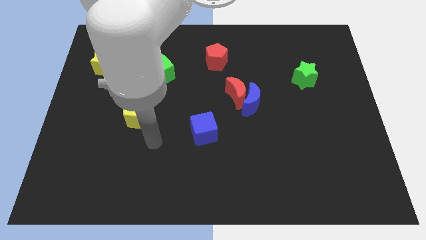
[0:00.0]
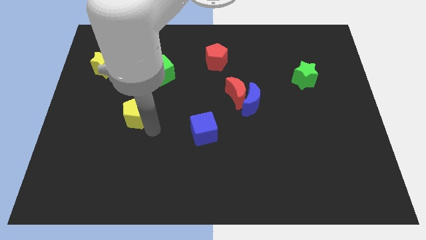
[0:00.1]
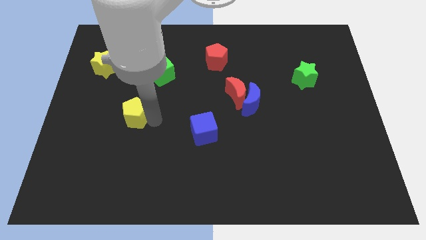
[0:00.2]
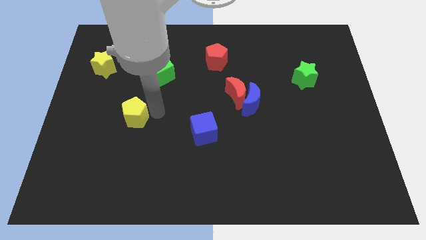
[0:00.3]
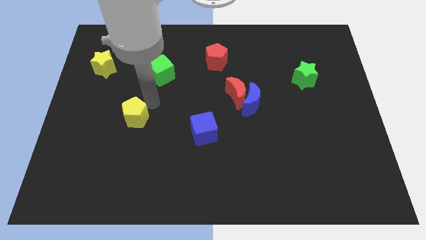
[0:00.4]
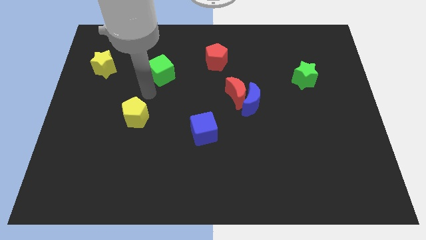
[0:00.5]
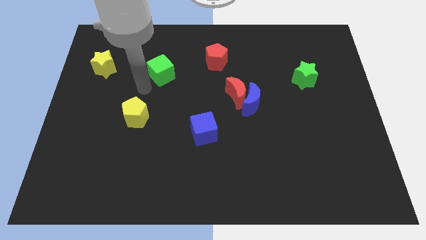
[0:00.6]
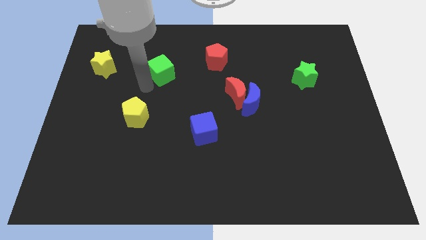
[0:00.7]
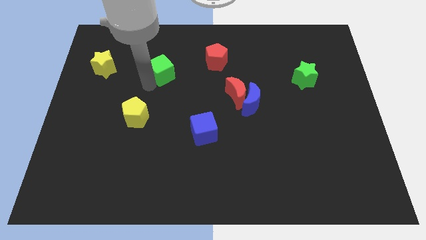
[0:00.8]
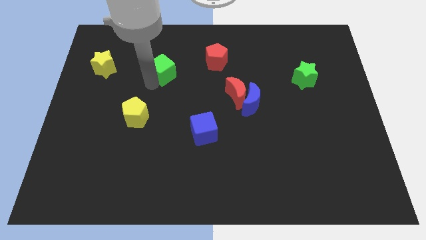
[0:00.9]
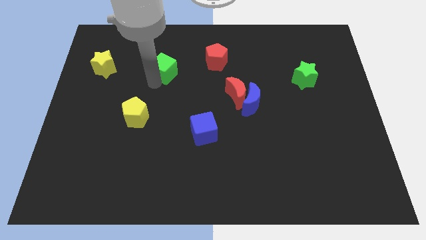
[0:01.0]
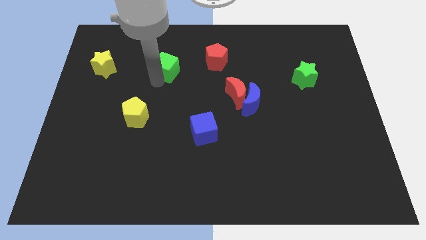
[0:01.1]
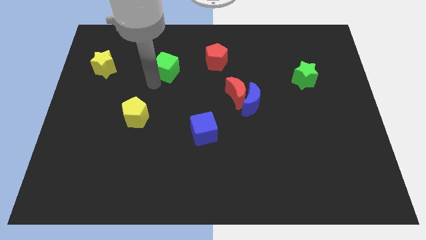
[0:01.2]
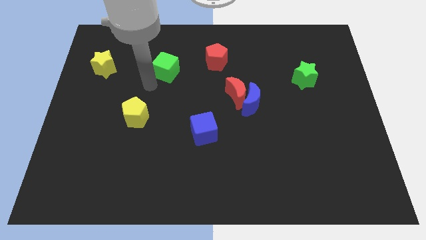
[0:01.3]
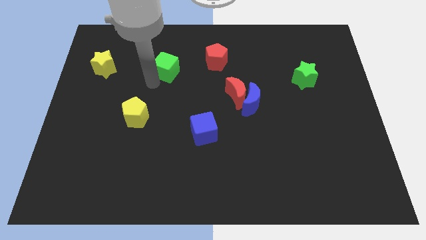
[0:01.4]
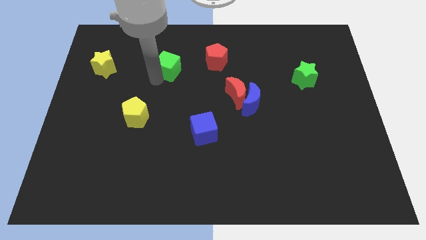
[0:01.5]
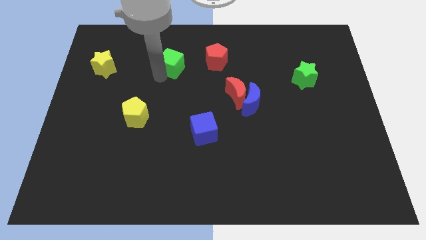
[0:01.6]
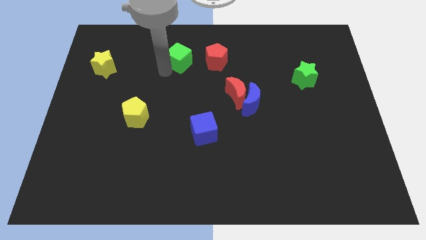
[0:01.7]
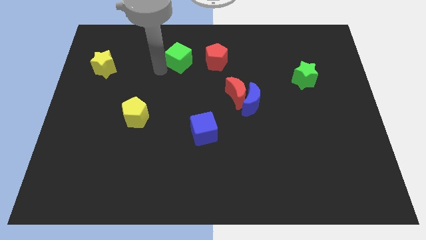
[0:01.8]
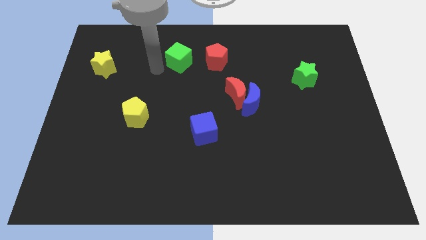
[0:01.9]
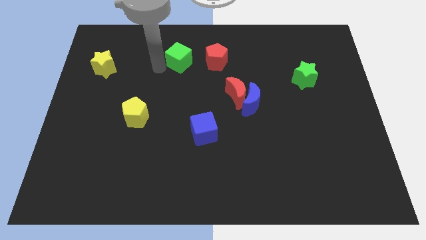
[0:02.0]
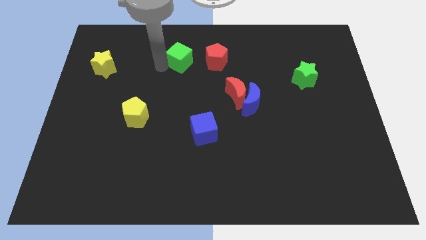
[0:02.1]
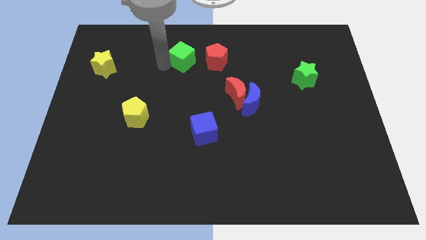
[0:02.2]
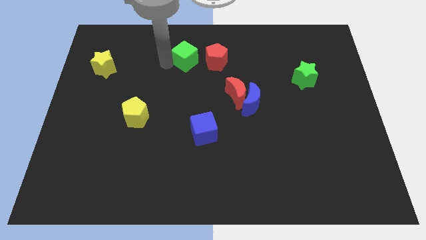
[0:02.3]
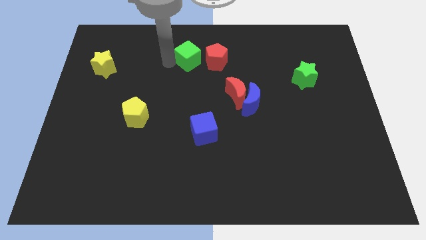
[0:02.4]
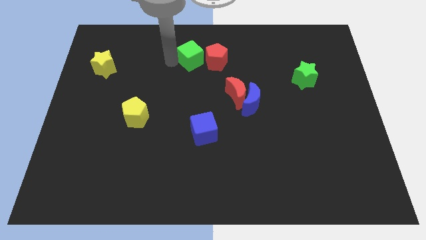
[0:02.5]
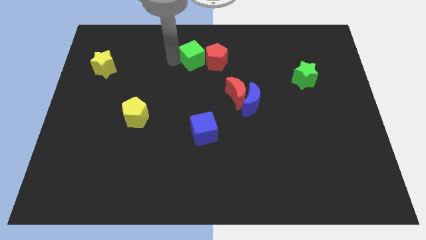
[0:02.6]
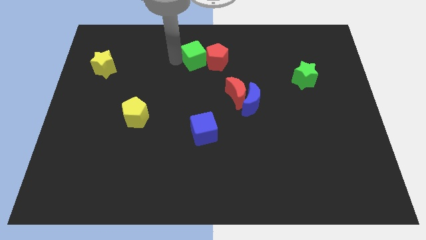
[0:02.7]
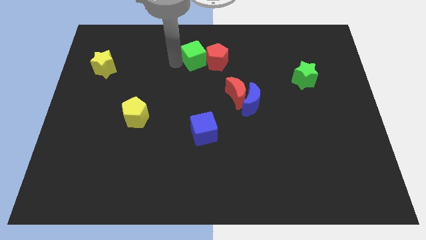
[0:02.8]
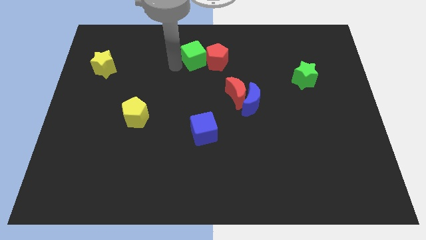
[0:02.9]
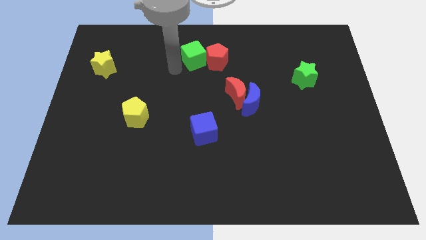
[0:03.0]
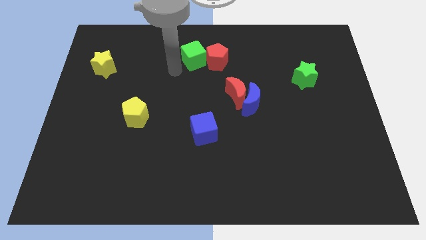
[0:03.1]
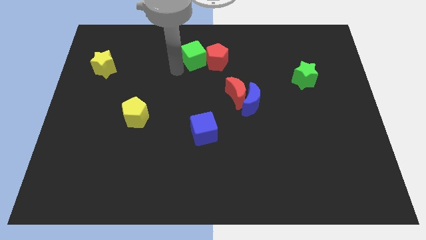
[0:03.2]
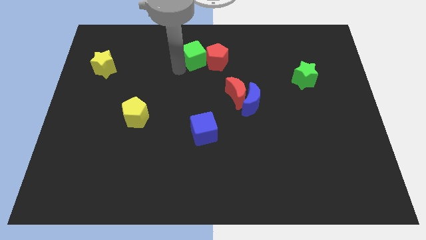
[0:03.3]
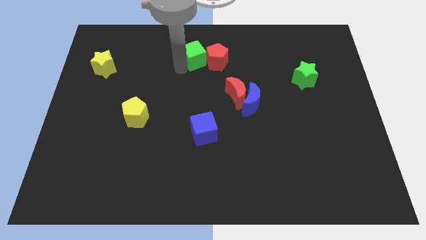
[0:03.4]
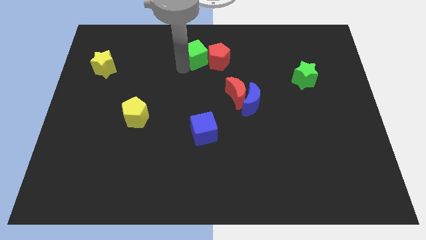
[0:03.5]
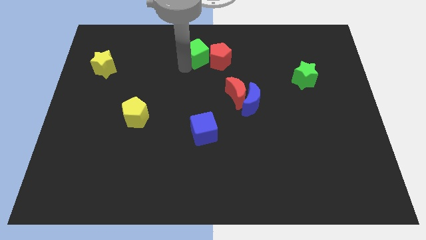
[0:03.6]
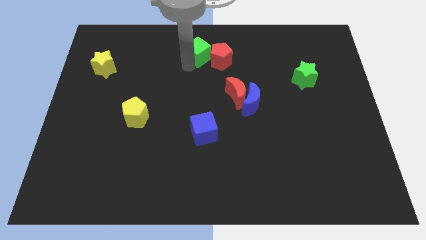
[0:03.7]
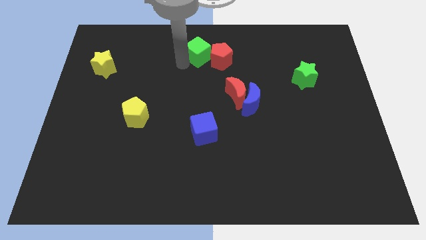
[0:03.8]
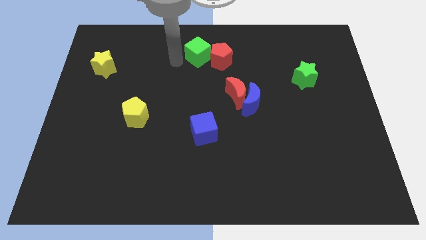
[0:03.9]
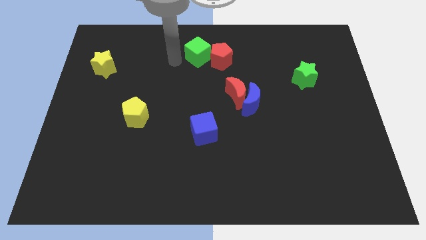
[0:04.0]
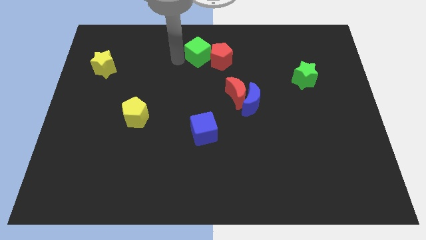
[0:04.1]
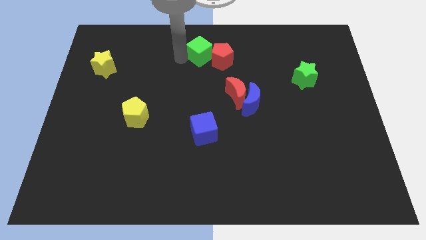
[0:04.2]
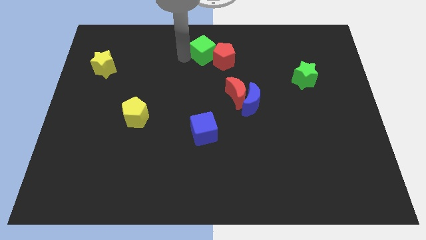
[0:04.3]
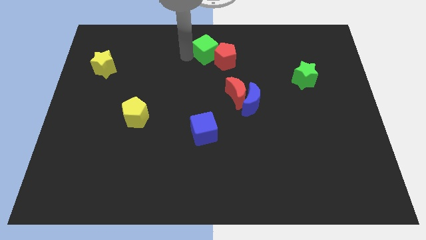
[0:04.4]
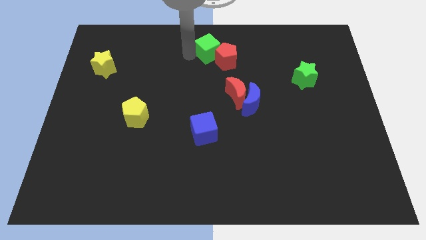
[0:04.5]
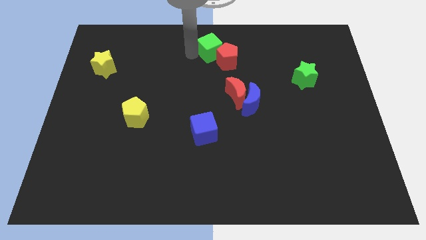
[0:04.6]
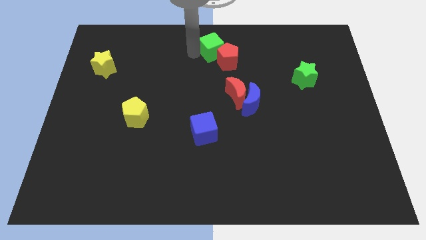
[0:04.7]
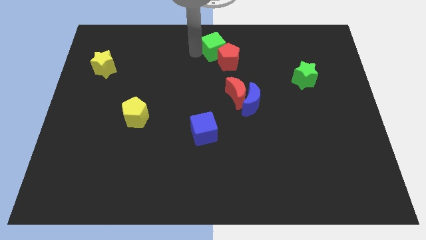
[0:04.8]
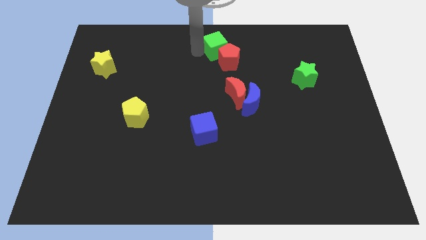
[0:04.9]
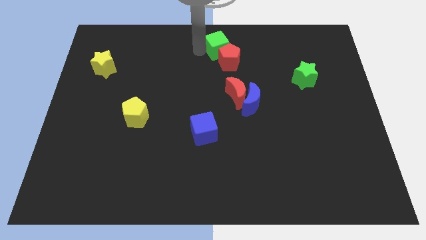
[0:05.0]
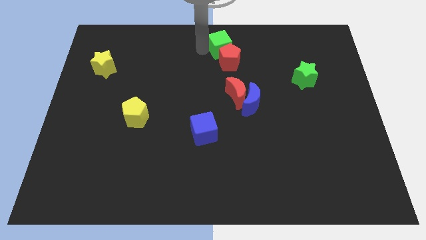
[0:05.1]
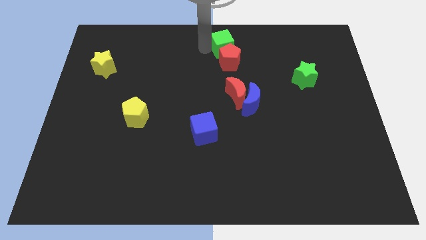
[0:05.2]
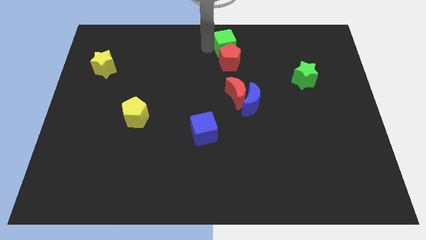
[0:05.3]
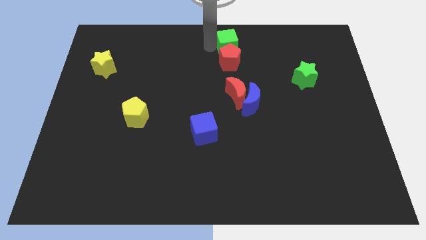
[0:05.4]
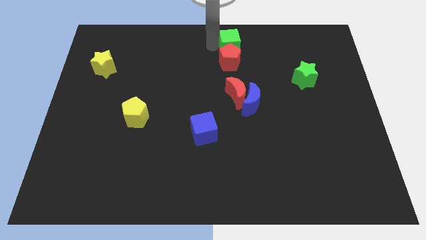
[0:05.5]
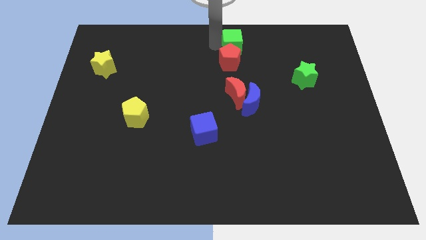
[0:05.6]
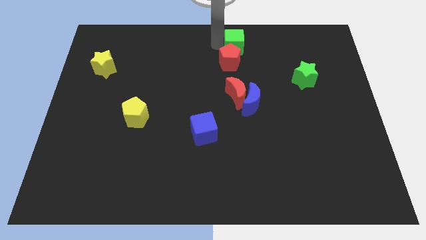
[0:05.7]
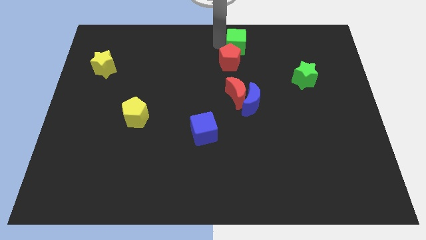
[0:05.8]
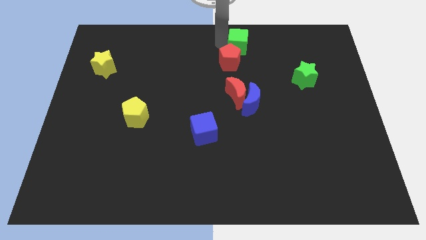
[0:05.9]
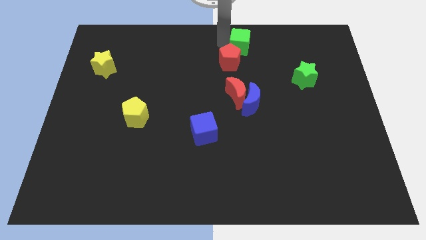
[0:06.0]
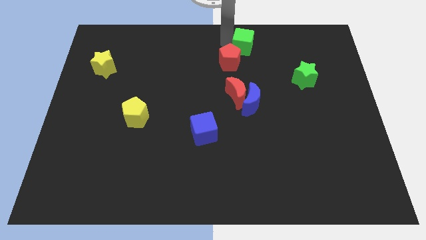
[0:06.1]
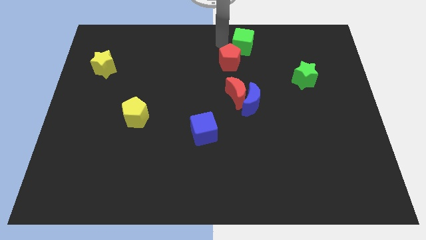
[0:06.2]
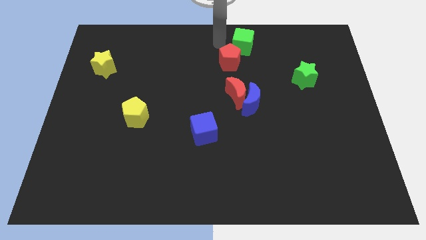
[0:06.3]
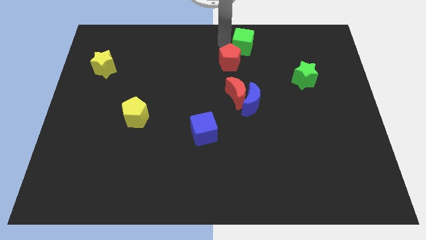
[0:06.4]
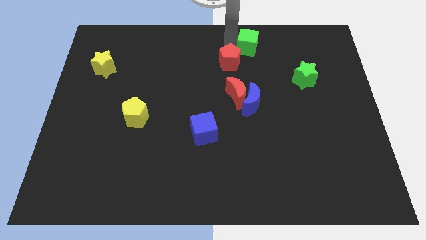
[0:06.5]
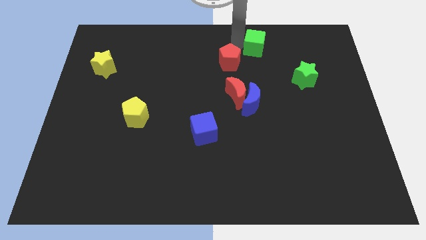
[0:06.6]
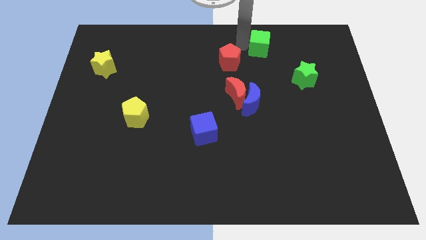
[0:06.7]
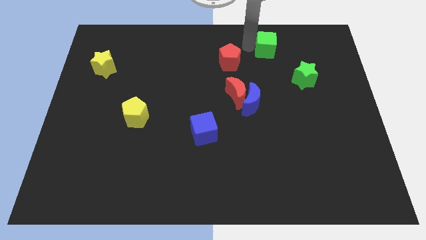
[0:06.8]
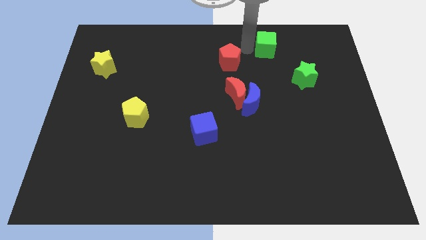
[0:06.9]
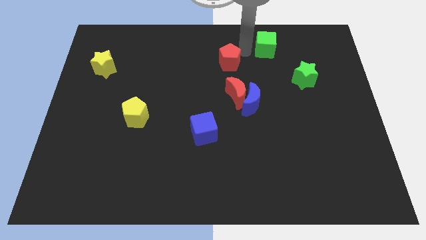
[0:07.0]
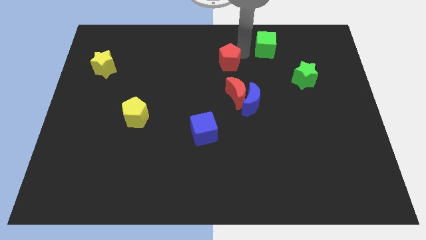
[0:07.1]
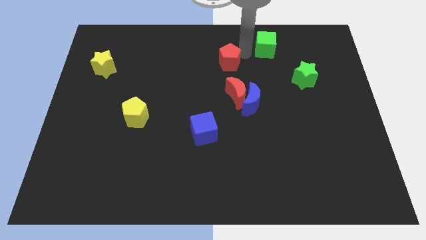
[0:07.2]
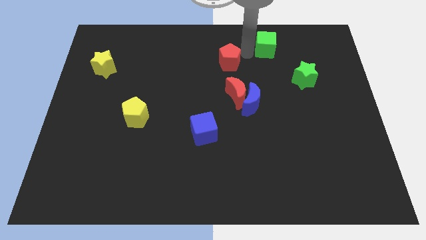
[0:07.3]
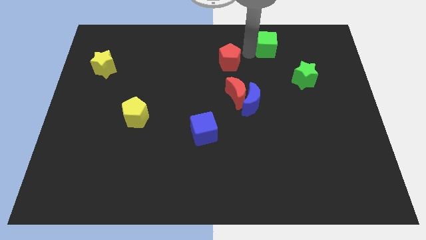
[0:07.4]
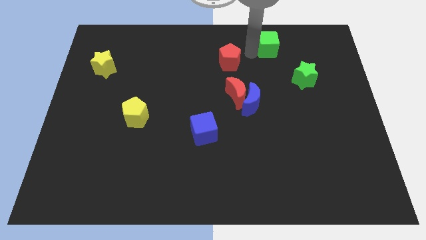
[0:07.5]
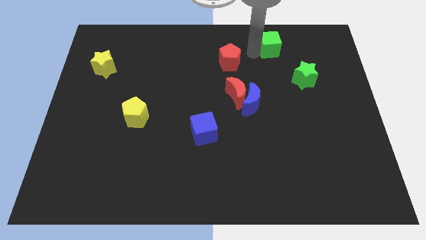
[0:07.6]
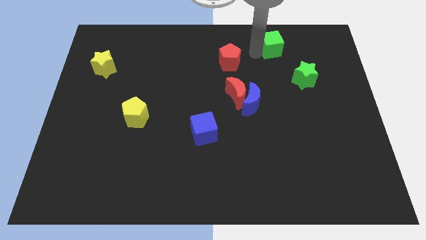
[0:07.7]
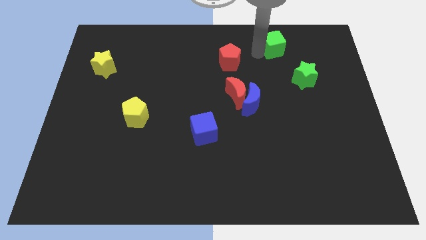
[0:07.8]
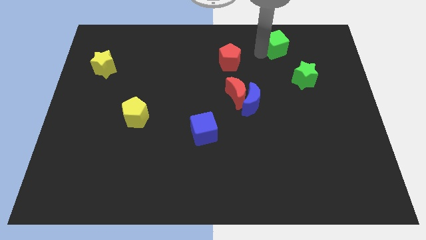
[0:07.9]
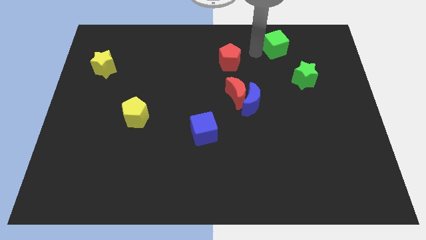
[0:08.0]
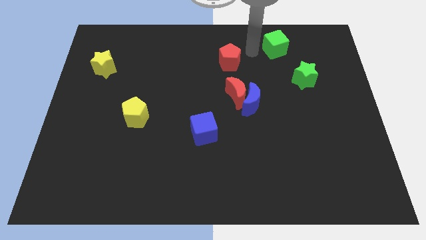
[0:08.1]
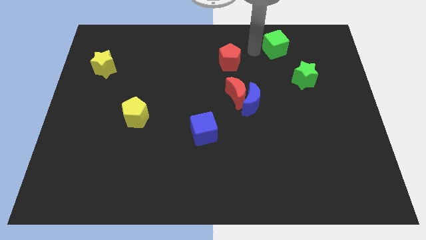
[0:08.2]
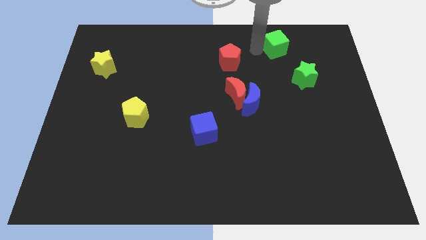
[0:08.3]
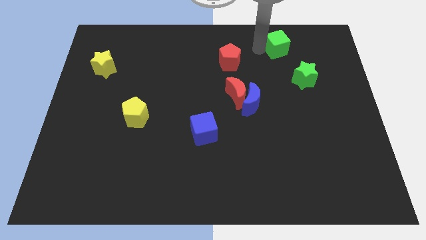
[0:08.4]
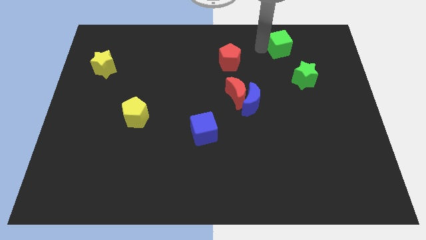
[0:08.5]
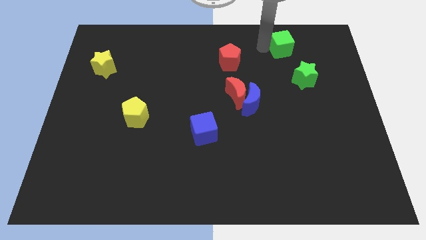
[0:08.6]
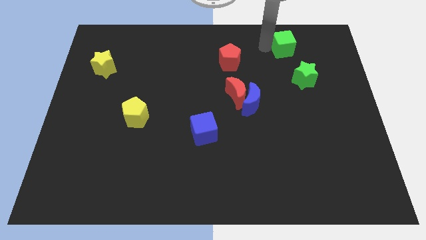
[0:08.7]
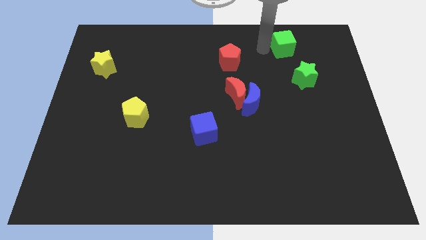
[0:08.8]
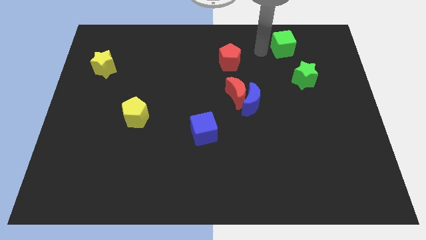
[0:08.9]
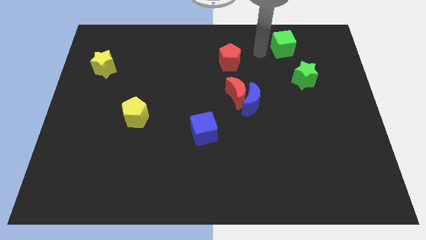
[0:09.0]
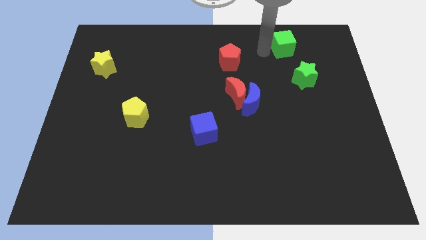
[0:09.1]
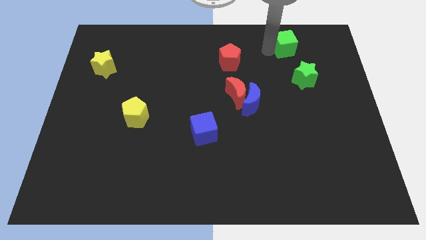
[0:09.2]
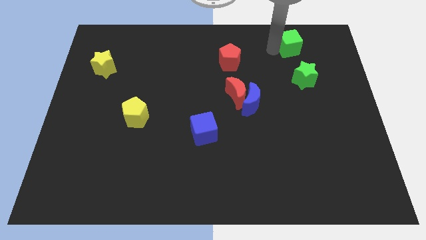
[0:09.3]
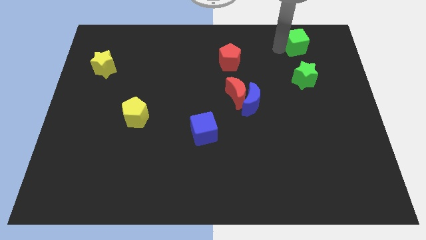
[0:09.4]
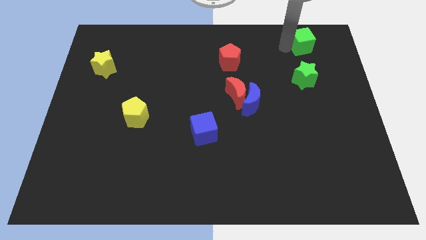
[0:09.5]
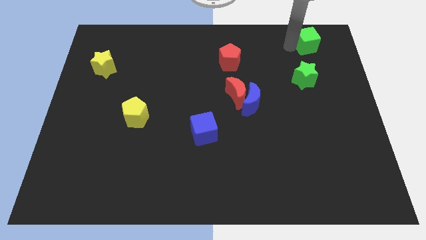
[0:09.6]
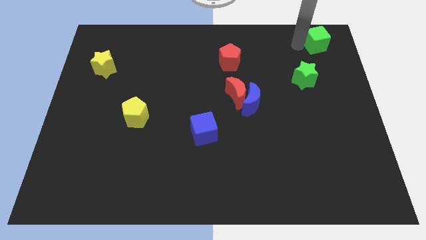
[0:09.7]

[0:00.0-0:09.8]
push the green cube to the top right
